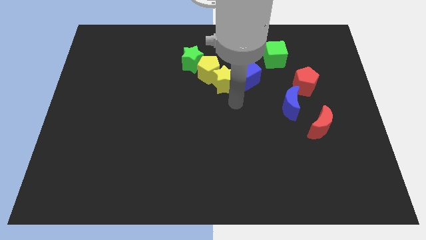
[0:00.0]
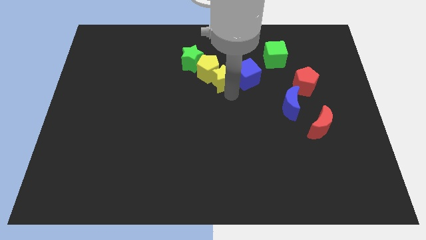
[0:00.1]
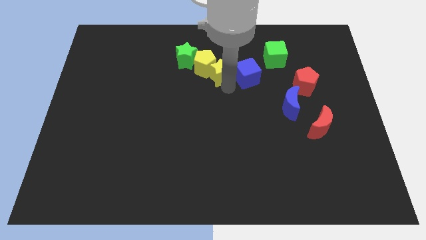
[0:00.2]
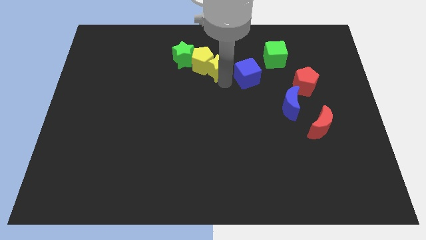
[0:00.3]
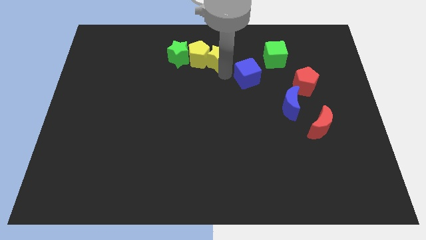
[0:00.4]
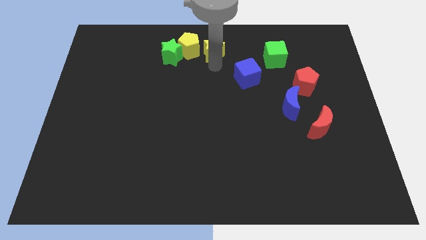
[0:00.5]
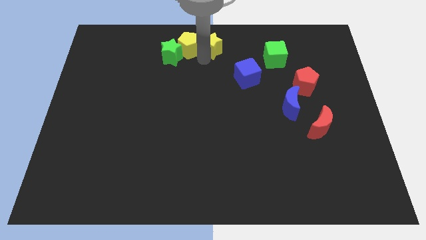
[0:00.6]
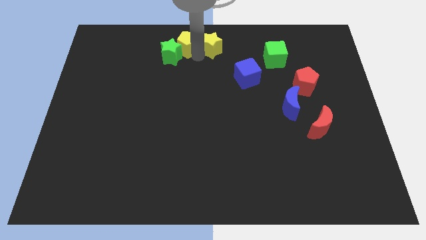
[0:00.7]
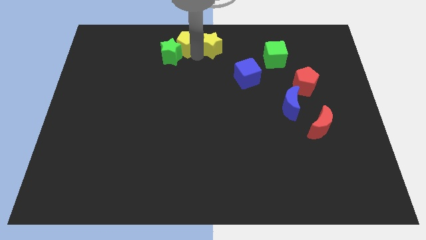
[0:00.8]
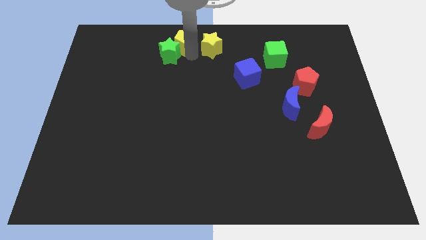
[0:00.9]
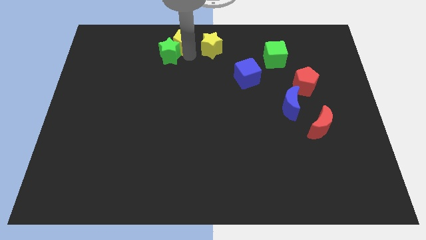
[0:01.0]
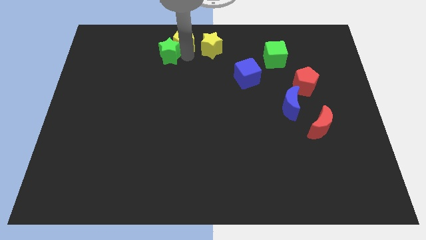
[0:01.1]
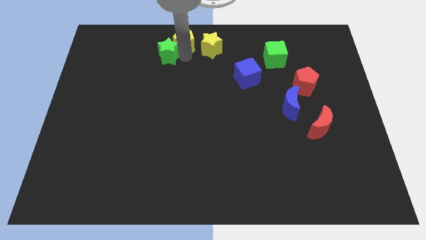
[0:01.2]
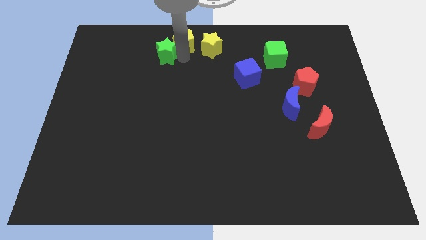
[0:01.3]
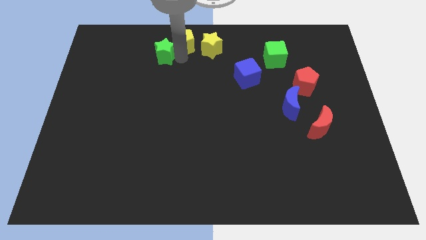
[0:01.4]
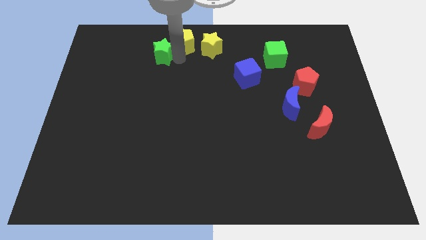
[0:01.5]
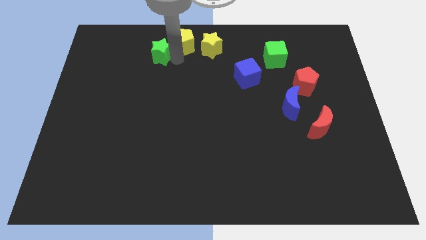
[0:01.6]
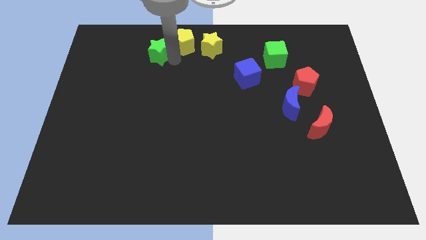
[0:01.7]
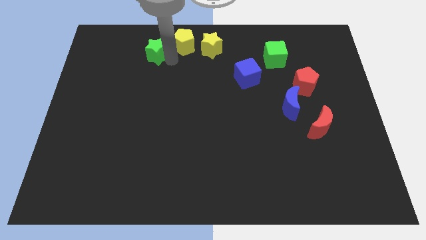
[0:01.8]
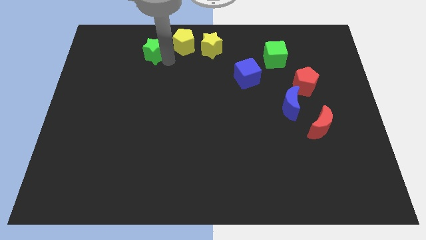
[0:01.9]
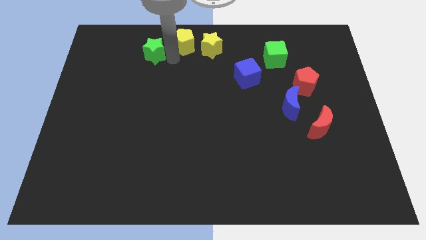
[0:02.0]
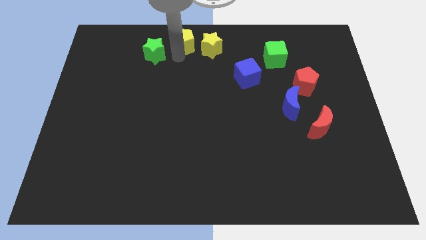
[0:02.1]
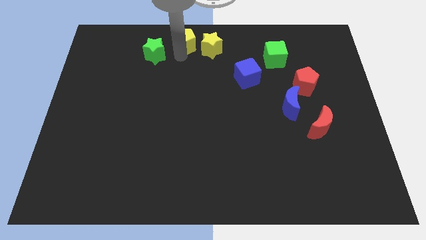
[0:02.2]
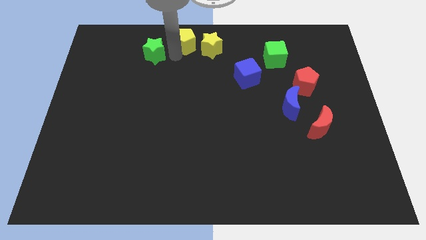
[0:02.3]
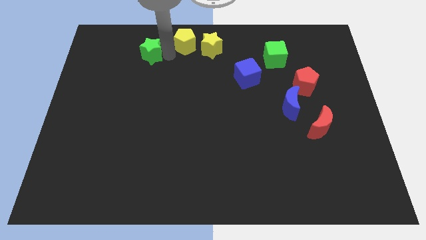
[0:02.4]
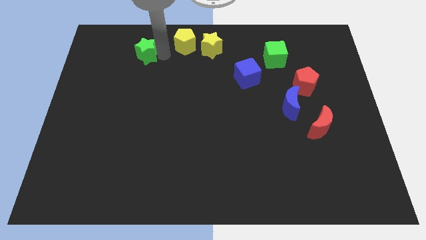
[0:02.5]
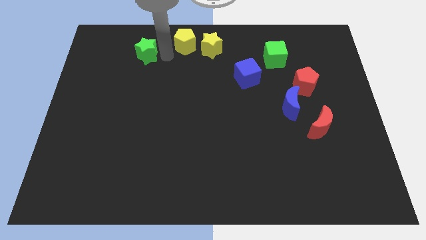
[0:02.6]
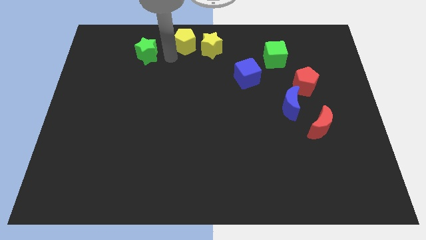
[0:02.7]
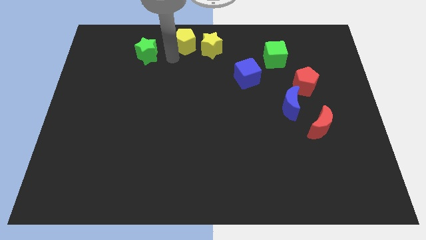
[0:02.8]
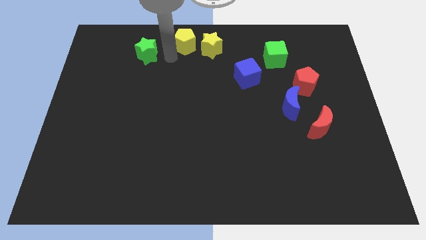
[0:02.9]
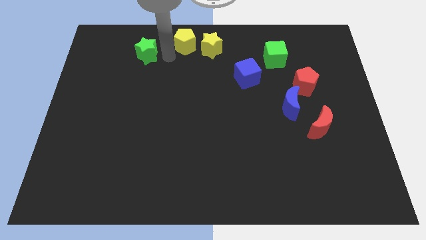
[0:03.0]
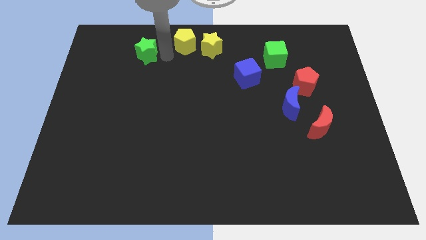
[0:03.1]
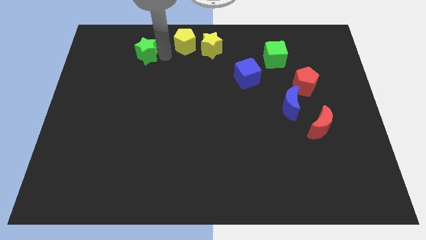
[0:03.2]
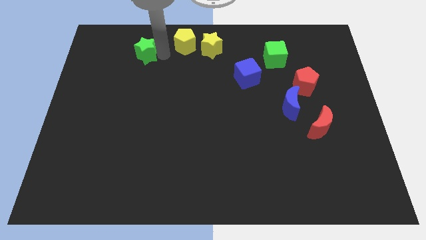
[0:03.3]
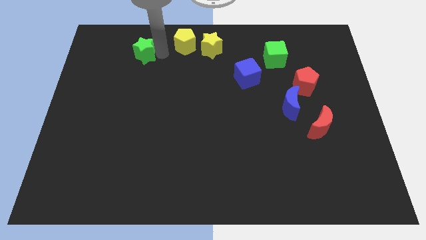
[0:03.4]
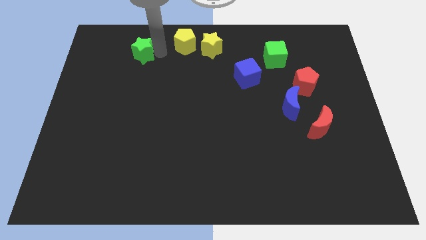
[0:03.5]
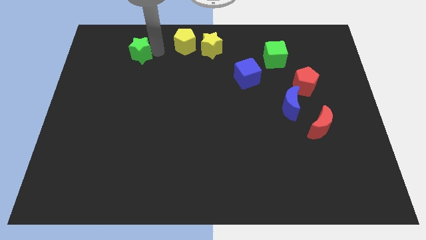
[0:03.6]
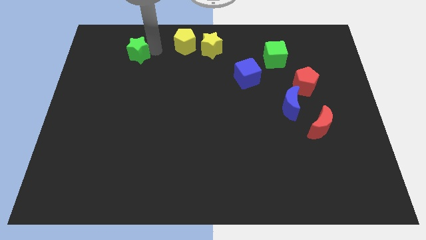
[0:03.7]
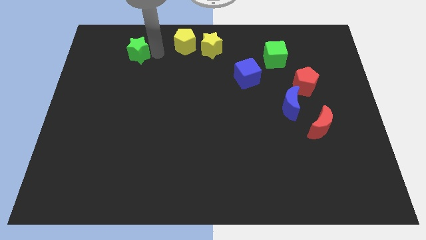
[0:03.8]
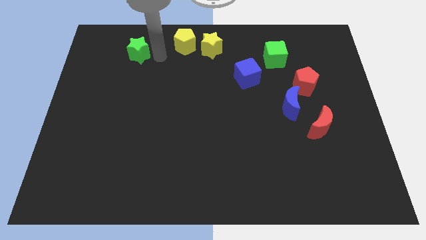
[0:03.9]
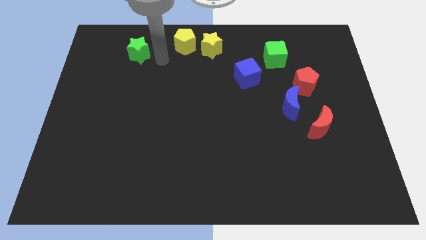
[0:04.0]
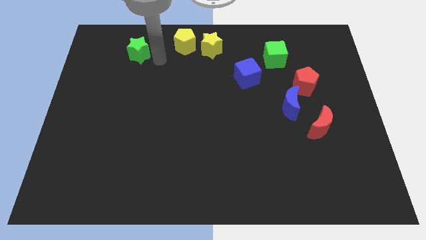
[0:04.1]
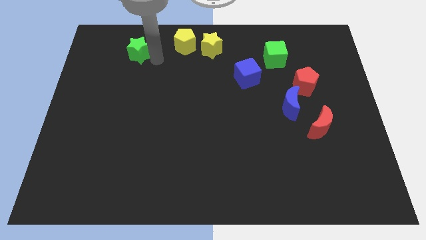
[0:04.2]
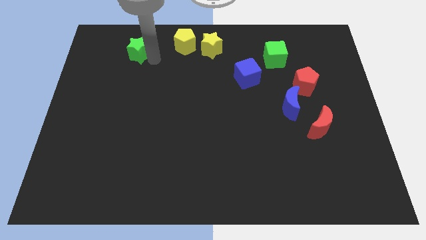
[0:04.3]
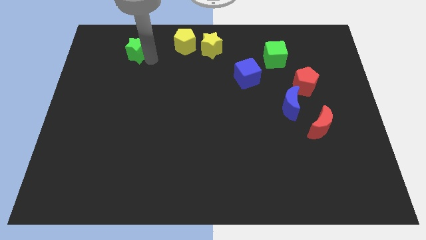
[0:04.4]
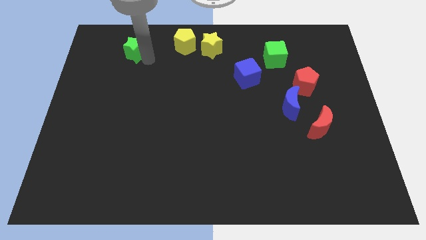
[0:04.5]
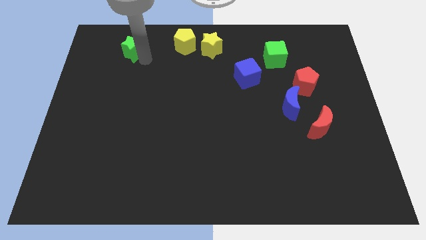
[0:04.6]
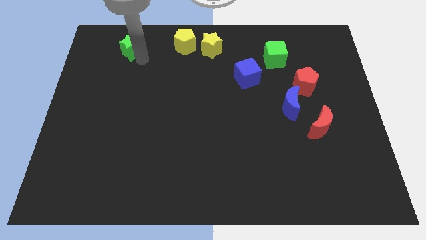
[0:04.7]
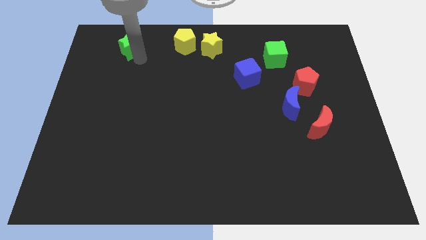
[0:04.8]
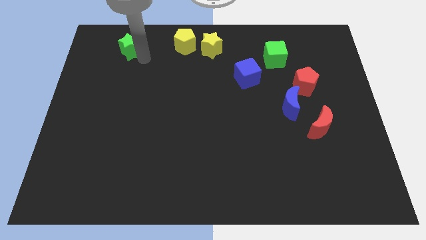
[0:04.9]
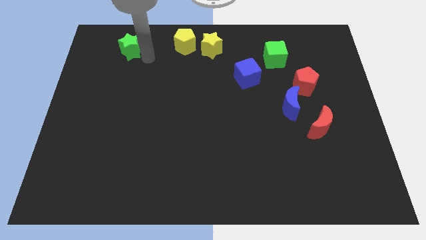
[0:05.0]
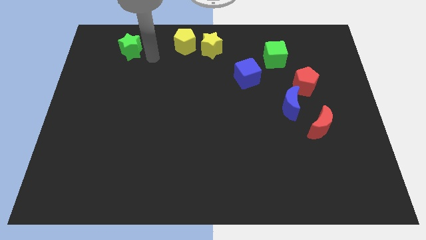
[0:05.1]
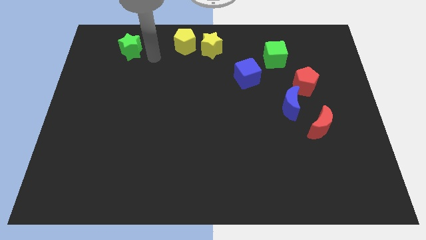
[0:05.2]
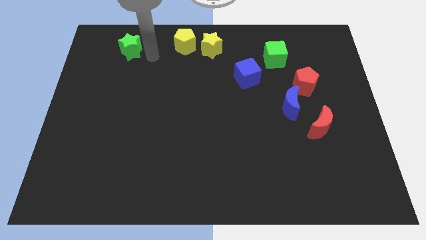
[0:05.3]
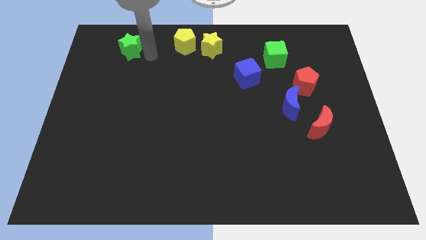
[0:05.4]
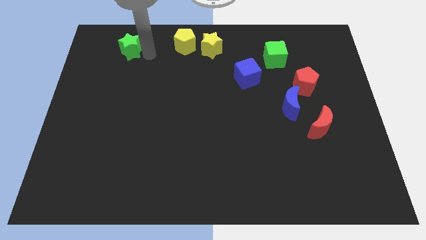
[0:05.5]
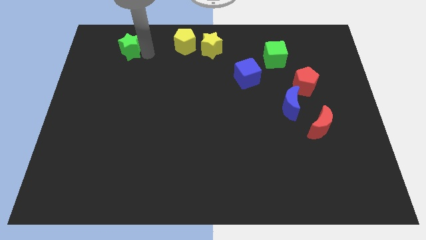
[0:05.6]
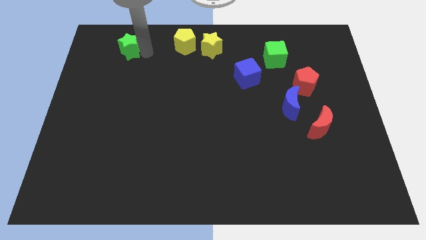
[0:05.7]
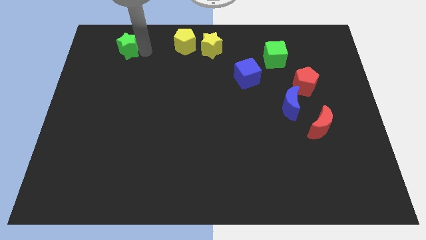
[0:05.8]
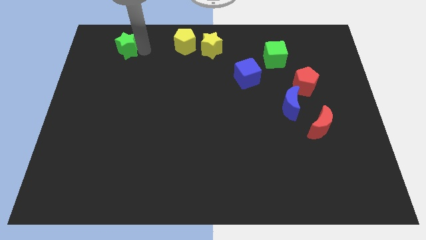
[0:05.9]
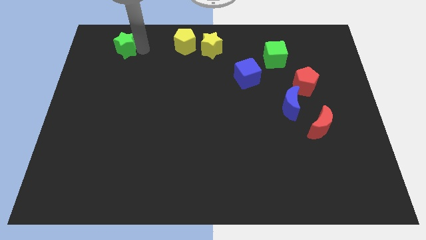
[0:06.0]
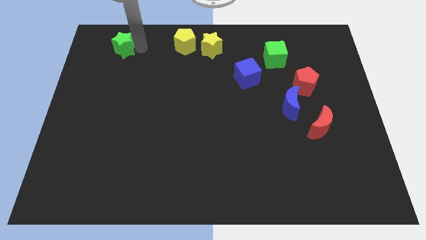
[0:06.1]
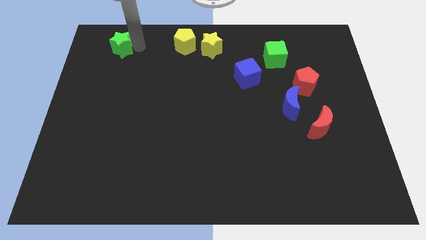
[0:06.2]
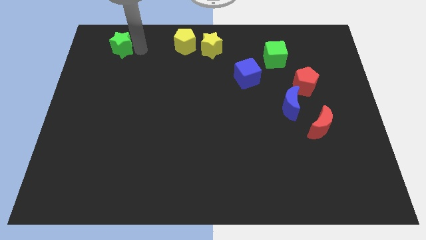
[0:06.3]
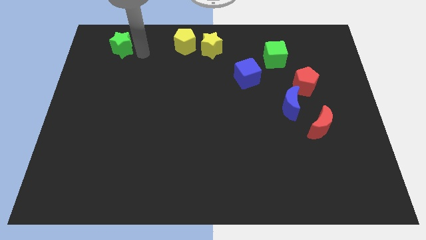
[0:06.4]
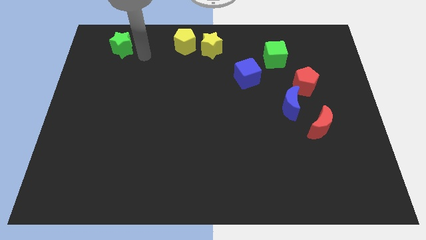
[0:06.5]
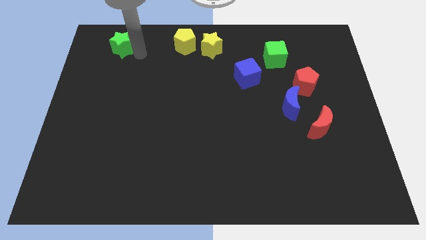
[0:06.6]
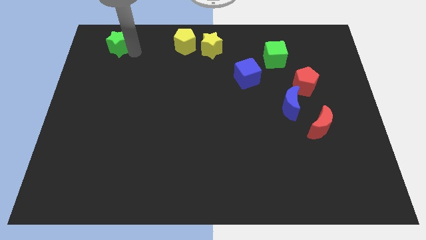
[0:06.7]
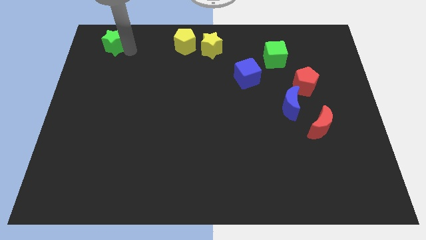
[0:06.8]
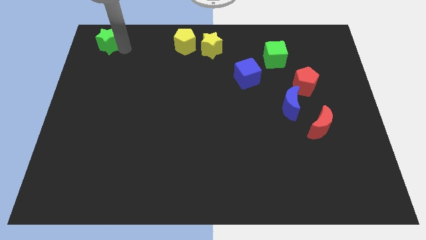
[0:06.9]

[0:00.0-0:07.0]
put the green star to the top left of the board
